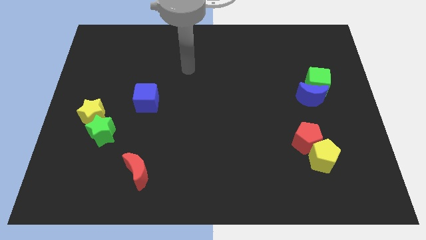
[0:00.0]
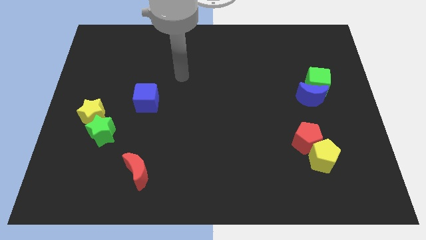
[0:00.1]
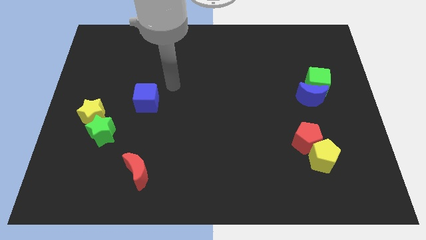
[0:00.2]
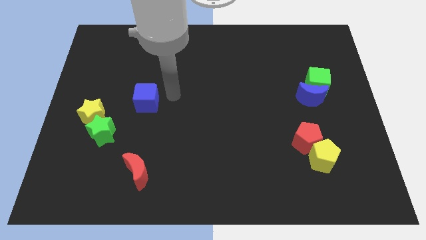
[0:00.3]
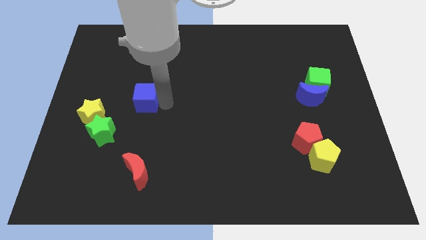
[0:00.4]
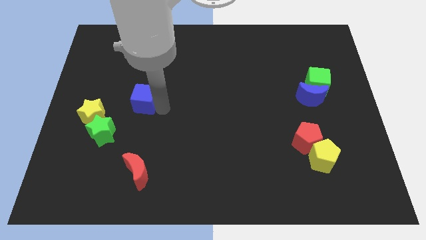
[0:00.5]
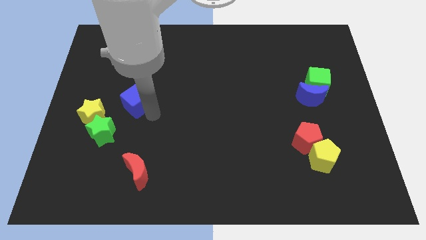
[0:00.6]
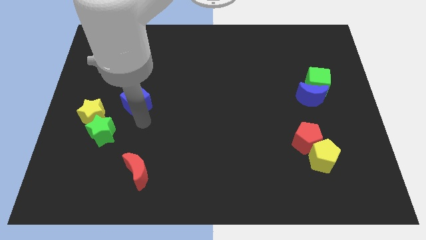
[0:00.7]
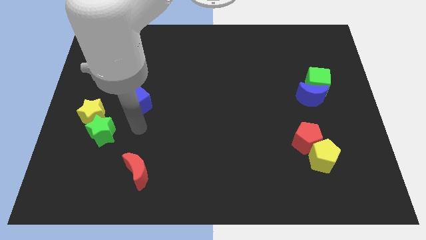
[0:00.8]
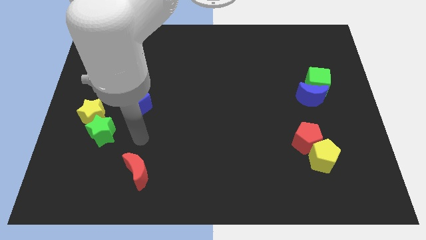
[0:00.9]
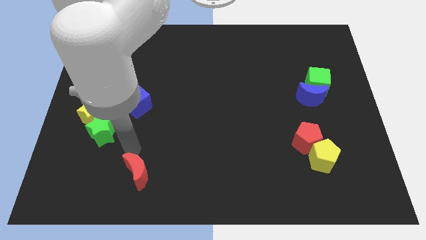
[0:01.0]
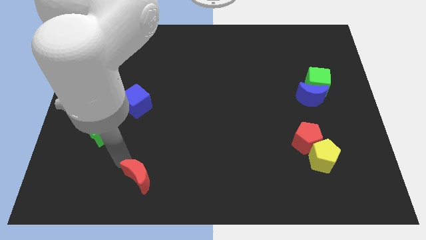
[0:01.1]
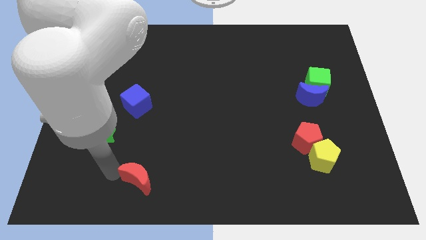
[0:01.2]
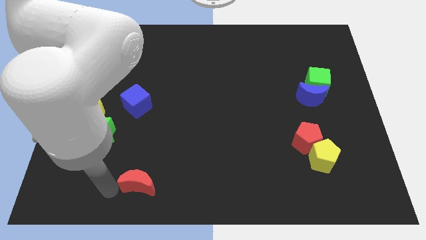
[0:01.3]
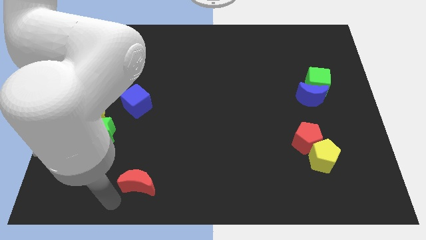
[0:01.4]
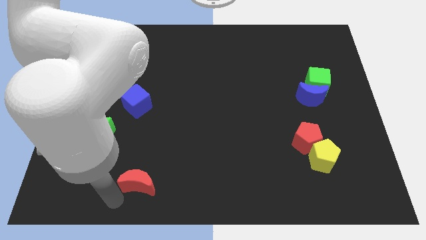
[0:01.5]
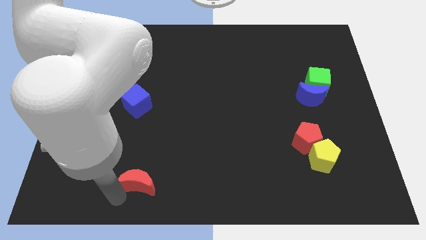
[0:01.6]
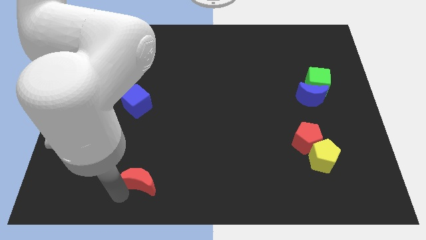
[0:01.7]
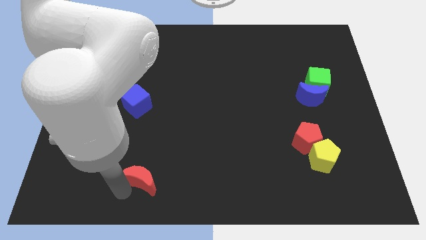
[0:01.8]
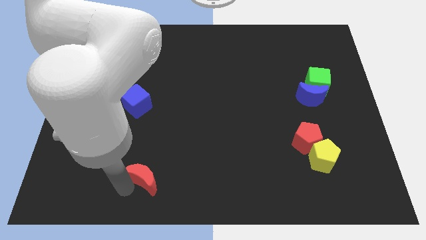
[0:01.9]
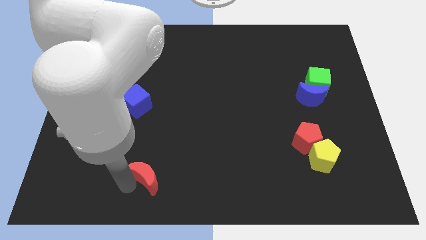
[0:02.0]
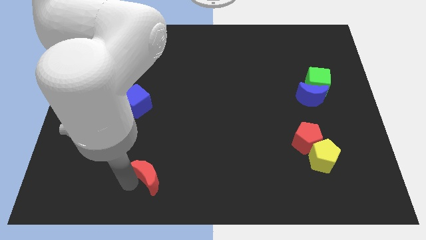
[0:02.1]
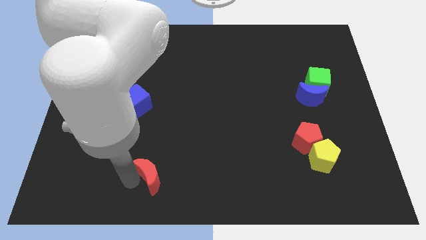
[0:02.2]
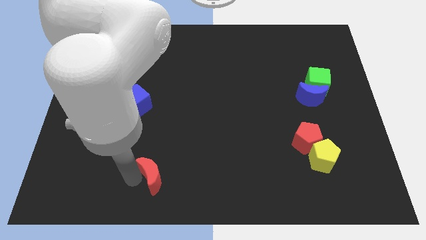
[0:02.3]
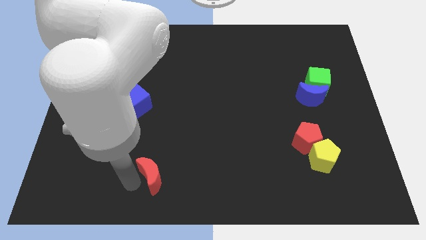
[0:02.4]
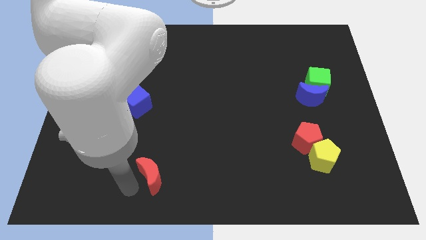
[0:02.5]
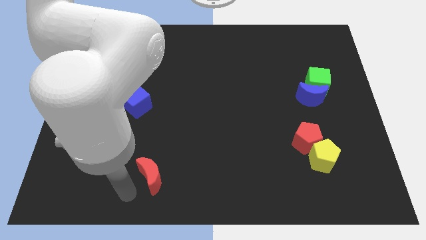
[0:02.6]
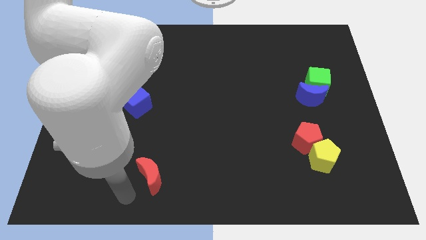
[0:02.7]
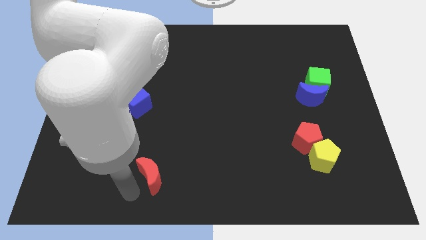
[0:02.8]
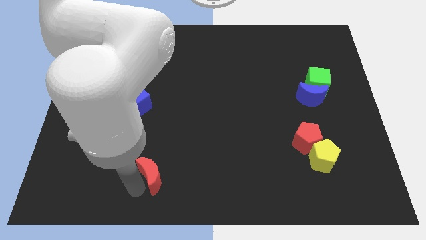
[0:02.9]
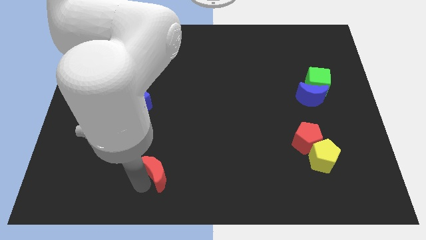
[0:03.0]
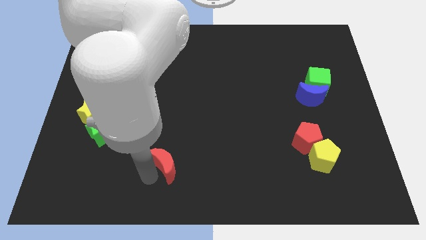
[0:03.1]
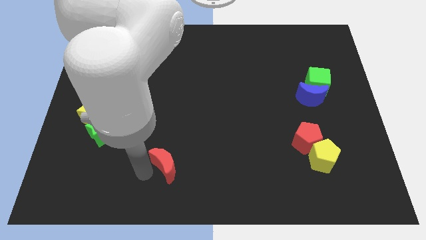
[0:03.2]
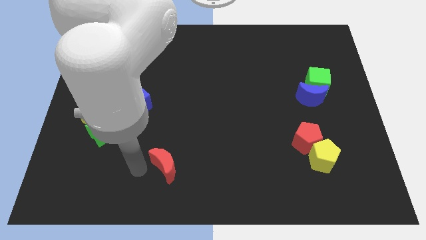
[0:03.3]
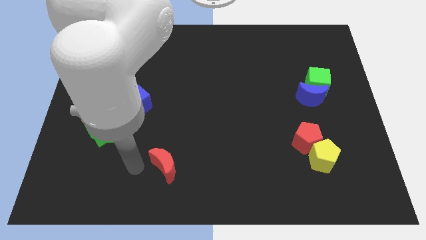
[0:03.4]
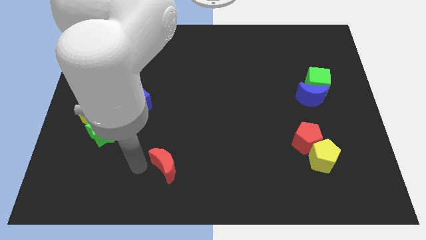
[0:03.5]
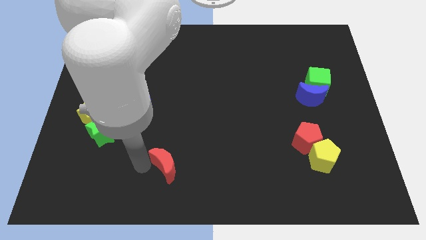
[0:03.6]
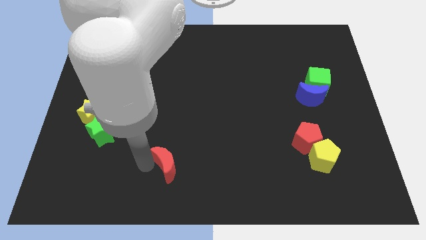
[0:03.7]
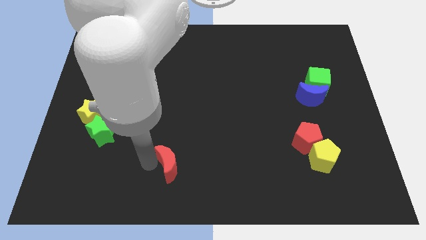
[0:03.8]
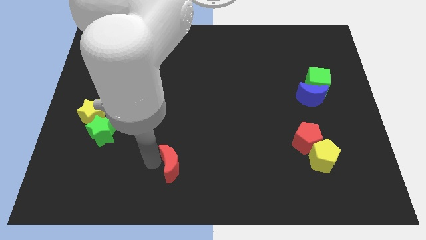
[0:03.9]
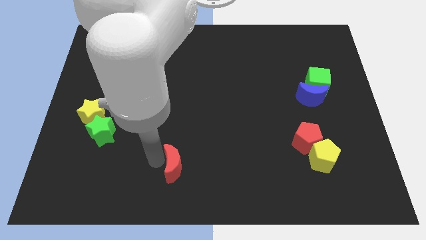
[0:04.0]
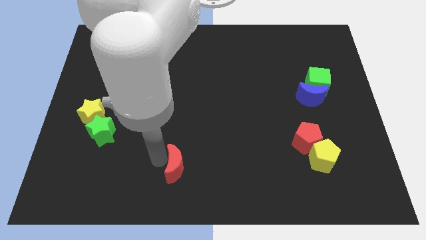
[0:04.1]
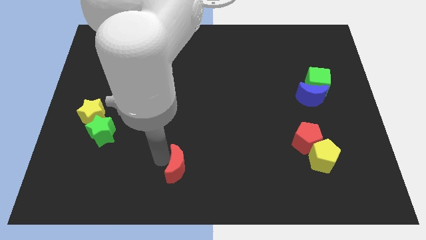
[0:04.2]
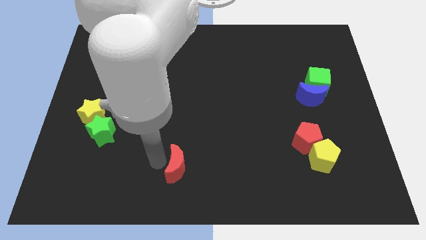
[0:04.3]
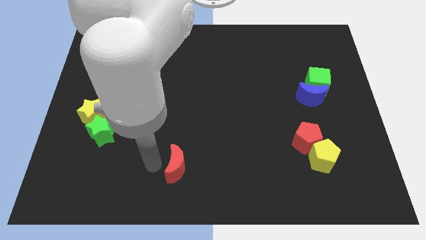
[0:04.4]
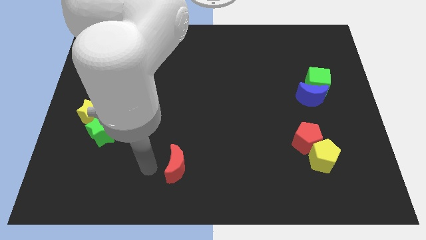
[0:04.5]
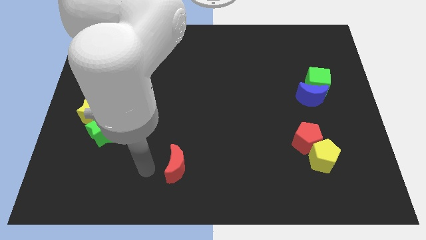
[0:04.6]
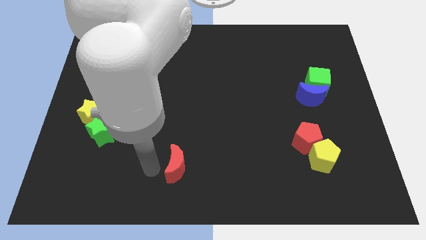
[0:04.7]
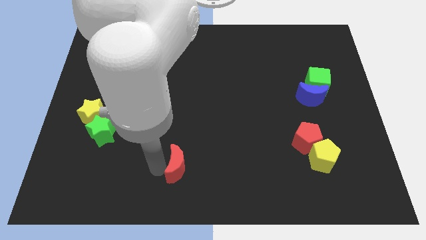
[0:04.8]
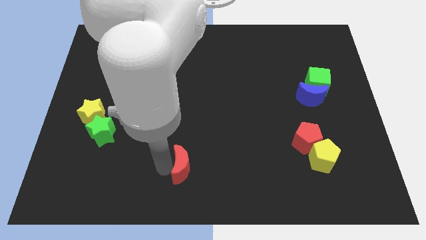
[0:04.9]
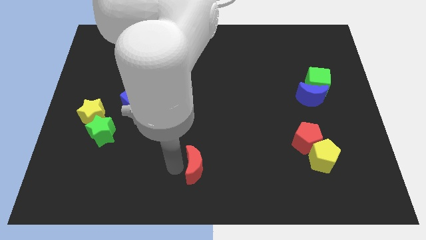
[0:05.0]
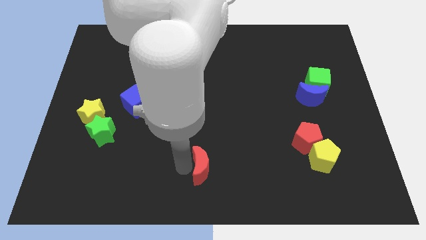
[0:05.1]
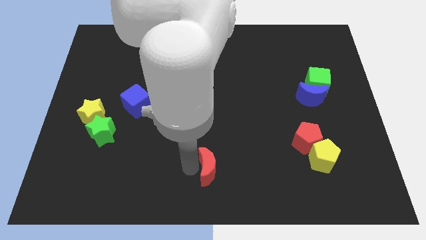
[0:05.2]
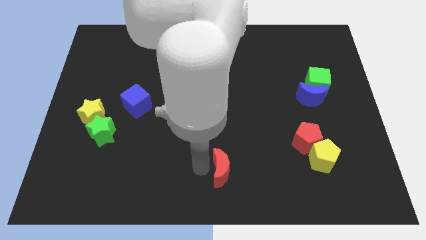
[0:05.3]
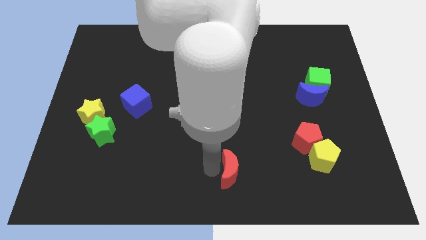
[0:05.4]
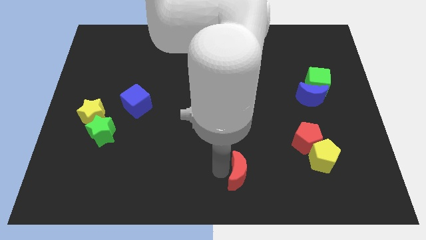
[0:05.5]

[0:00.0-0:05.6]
move the red moon right

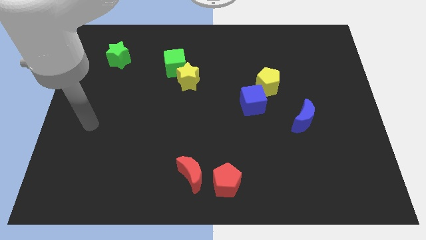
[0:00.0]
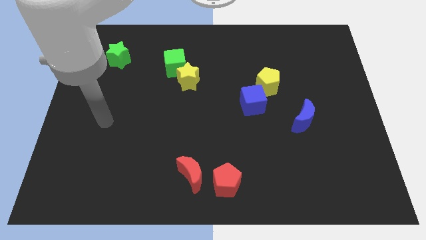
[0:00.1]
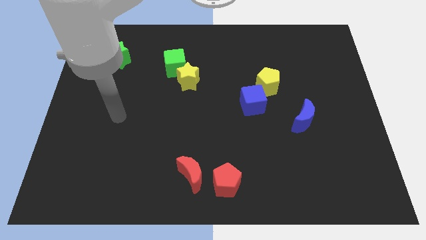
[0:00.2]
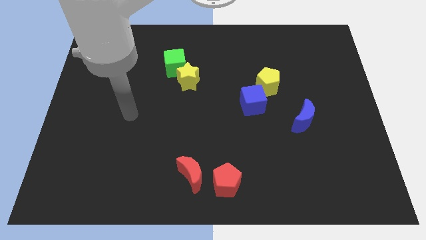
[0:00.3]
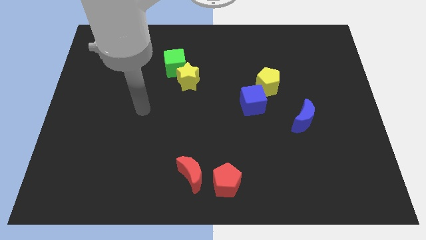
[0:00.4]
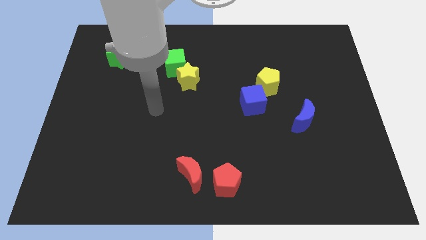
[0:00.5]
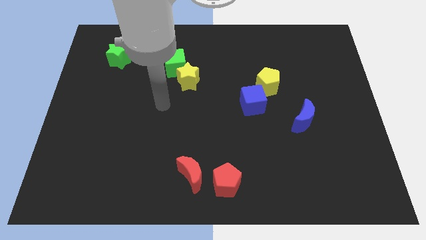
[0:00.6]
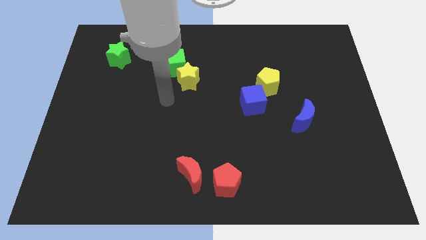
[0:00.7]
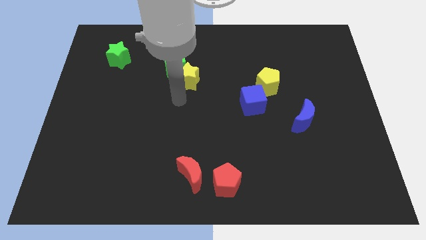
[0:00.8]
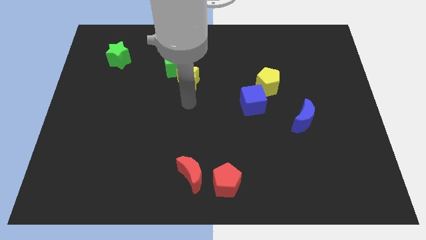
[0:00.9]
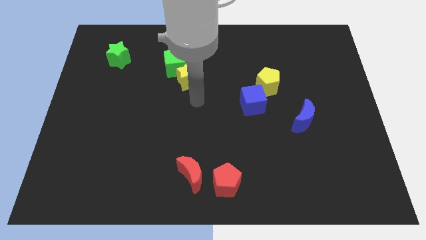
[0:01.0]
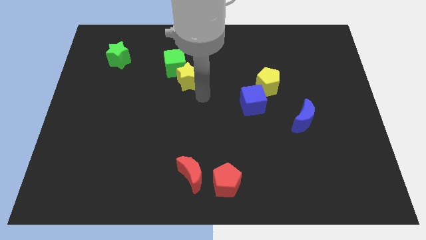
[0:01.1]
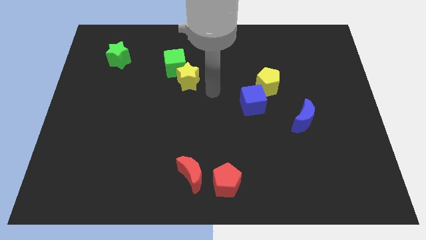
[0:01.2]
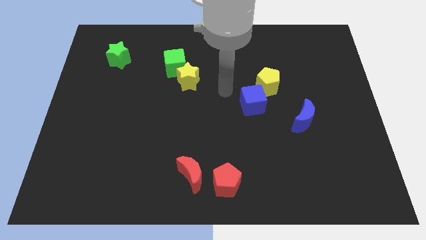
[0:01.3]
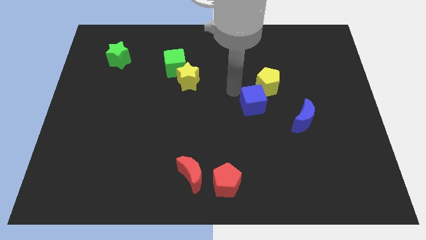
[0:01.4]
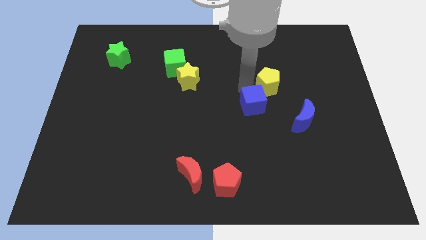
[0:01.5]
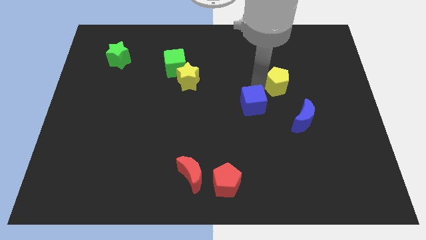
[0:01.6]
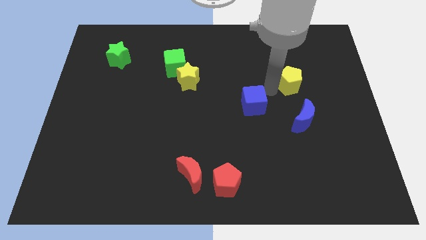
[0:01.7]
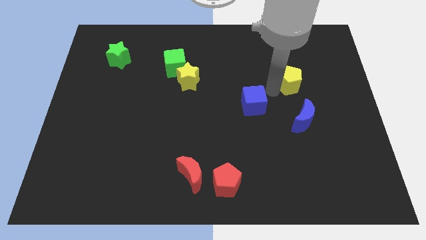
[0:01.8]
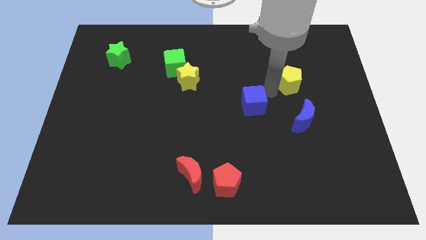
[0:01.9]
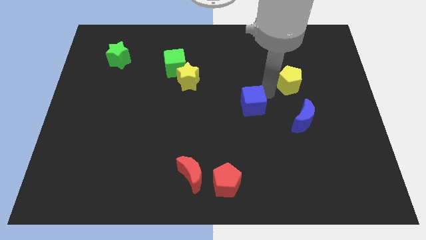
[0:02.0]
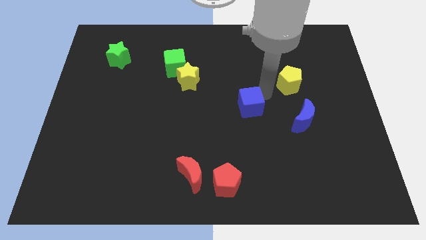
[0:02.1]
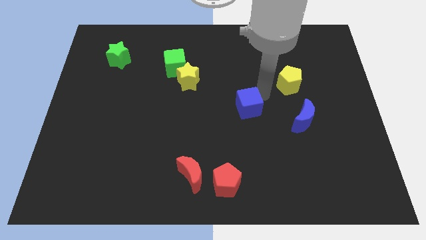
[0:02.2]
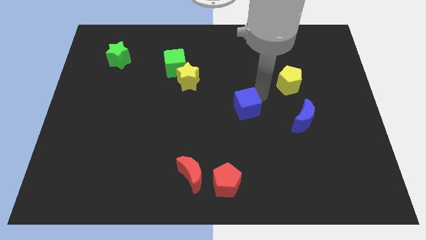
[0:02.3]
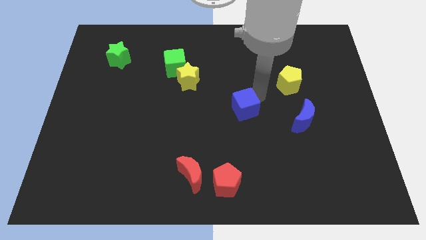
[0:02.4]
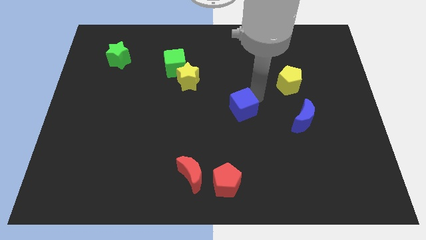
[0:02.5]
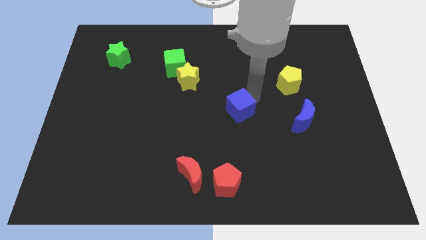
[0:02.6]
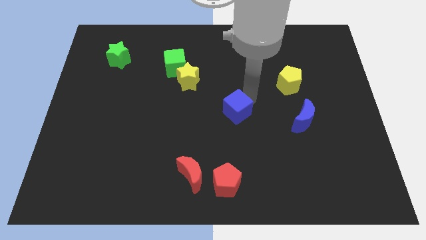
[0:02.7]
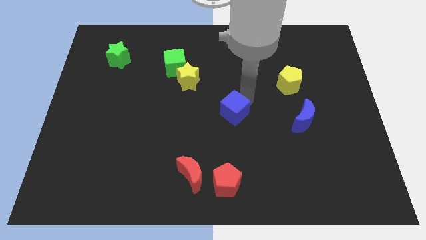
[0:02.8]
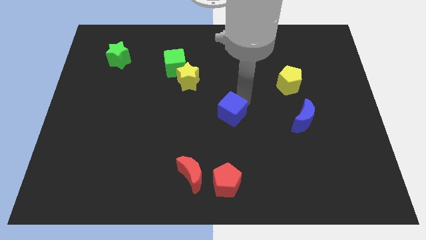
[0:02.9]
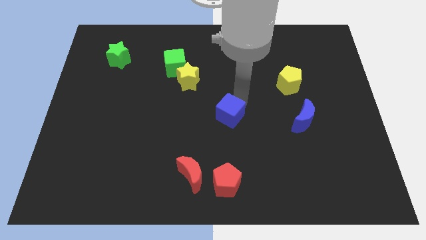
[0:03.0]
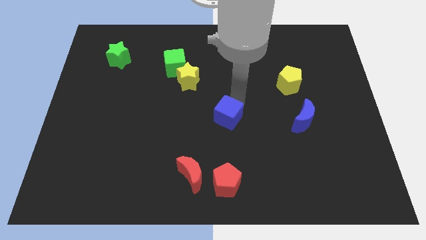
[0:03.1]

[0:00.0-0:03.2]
push the blue cube down and to the left a bit
